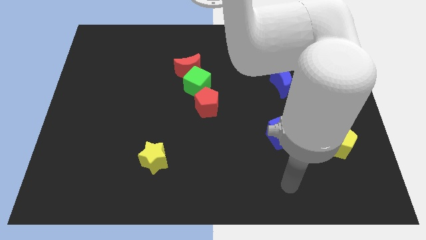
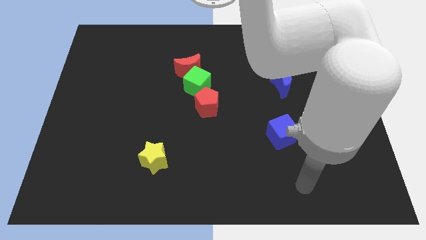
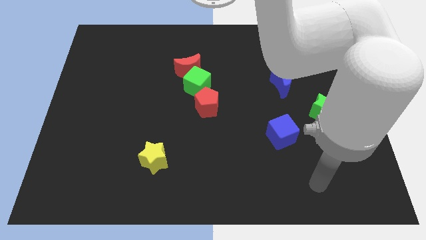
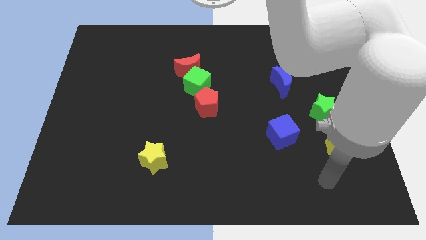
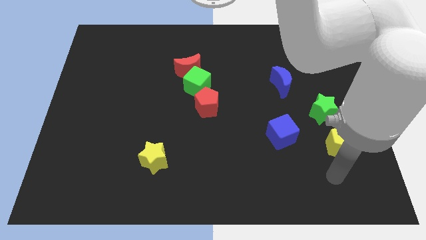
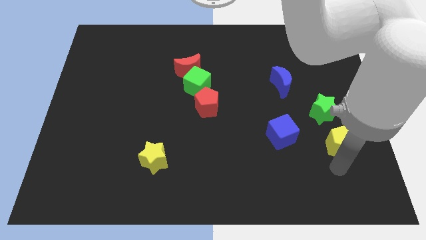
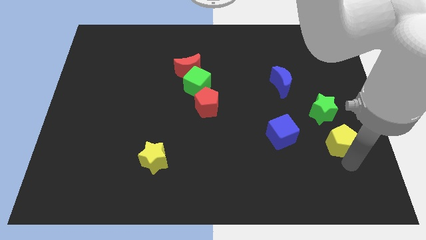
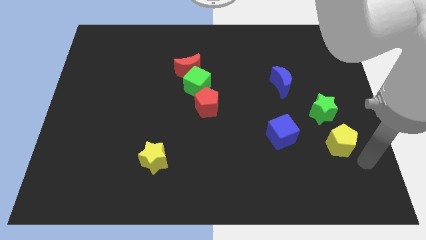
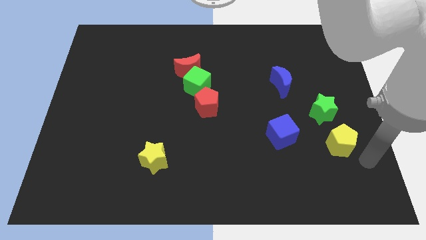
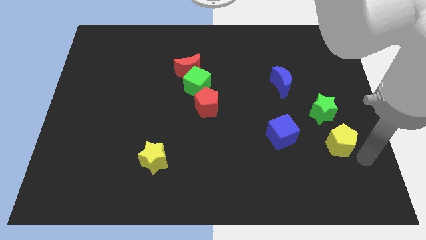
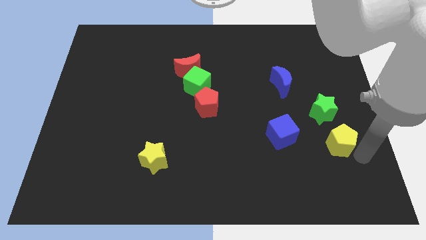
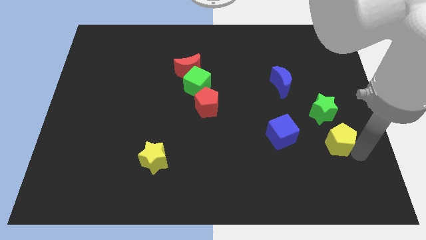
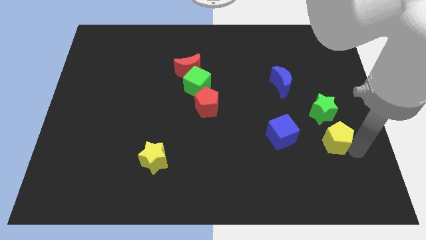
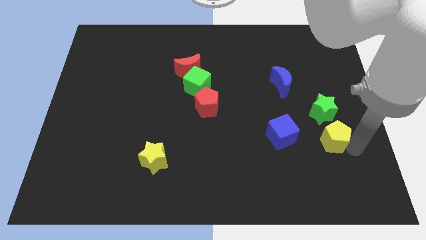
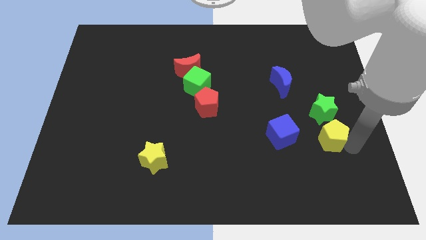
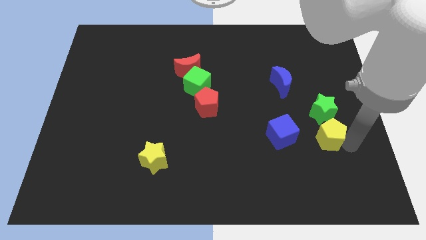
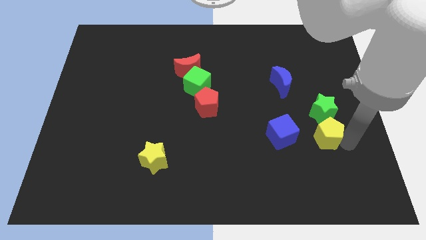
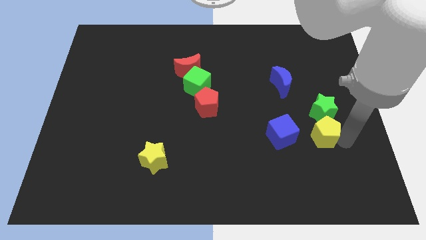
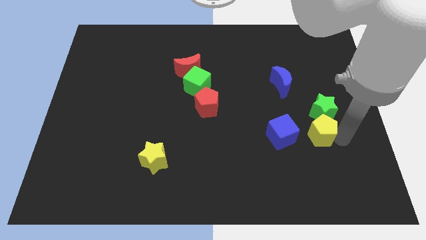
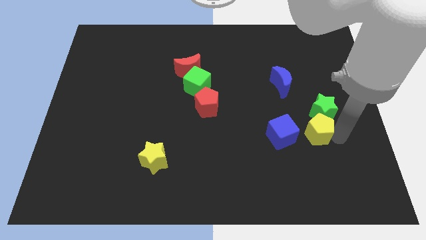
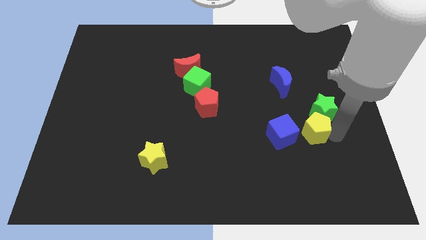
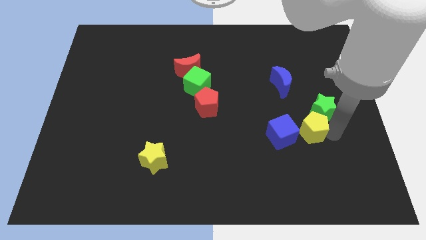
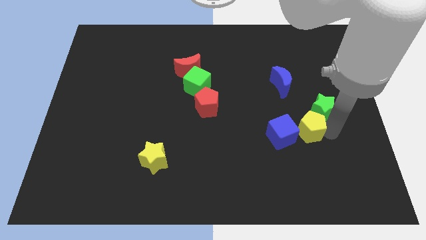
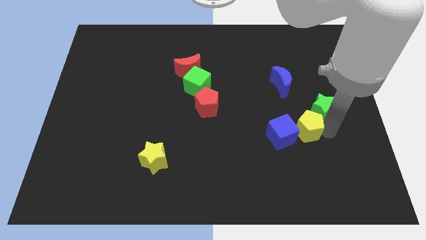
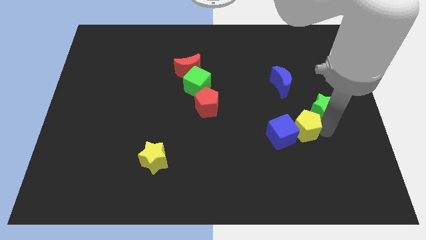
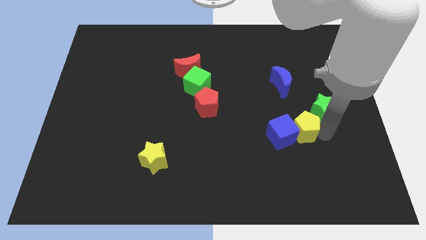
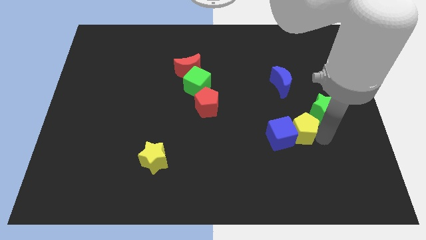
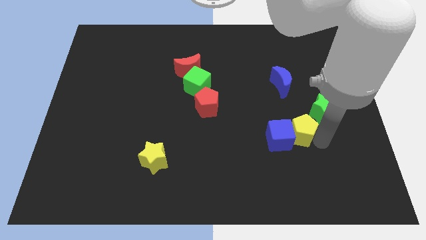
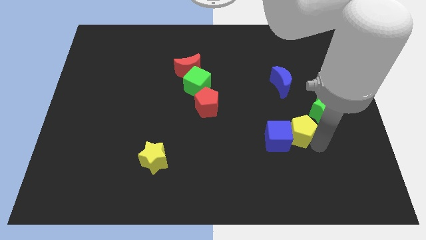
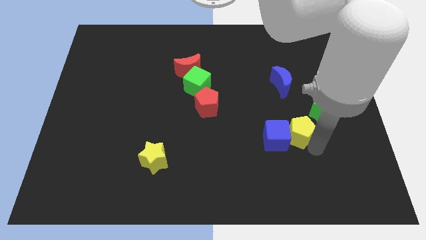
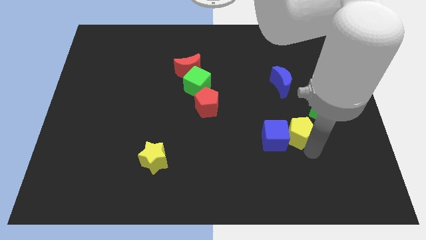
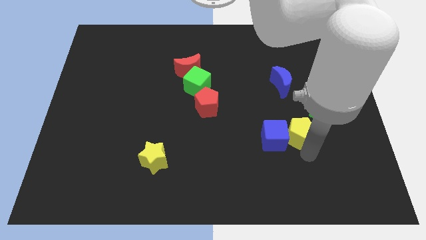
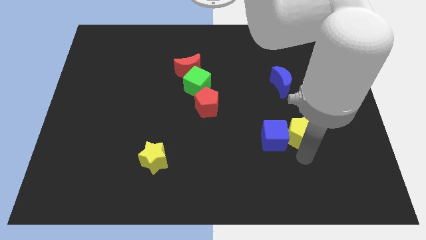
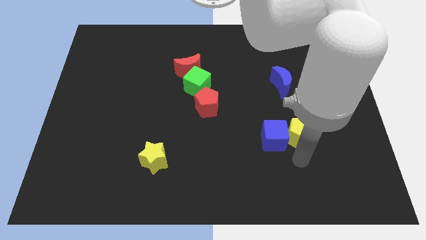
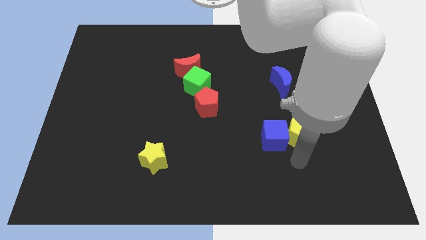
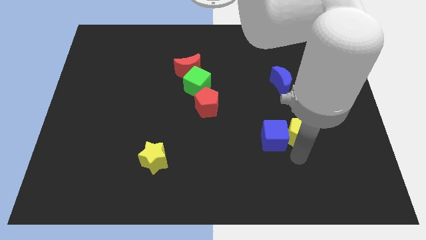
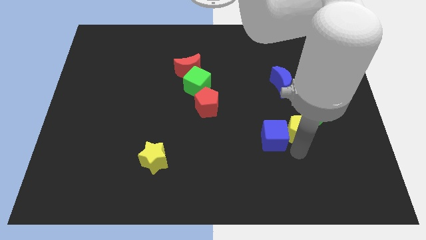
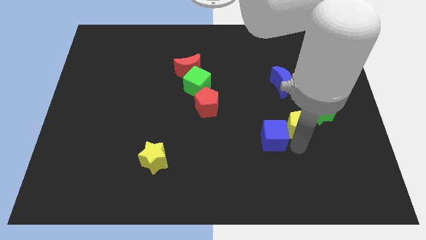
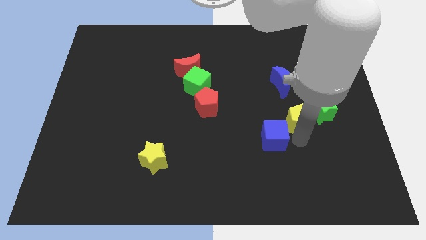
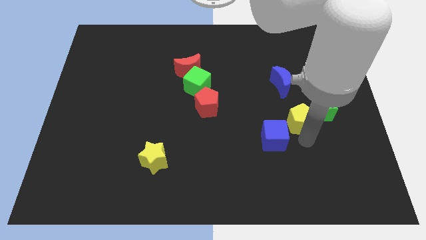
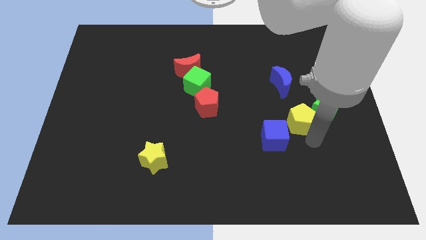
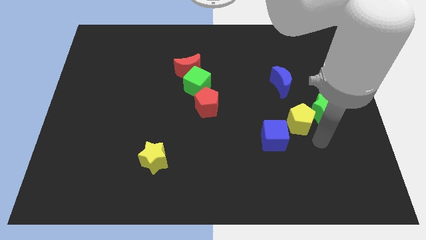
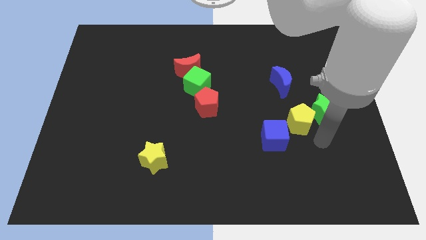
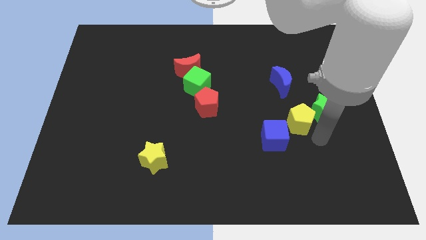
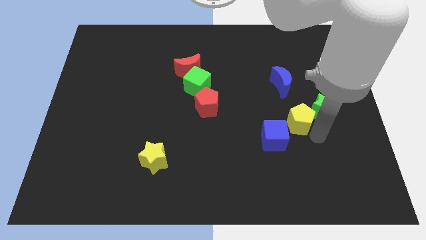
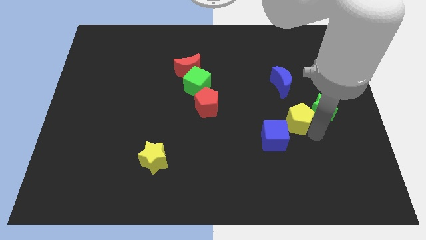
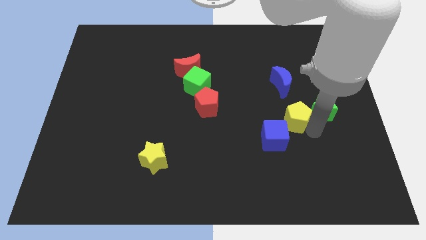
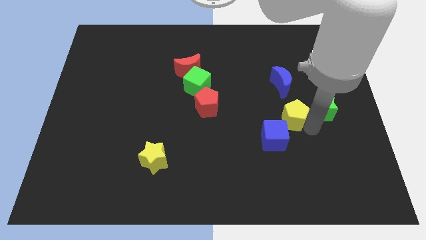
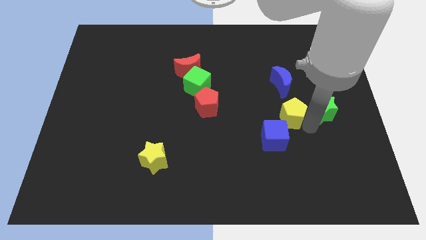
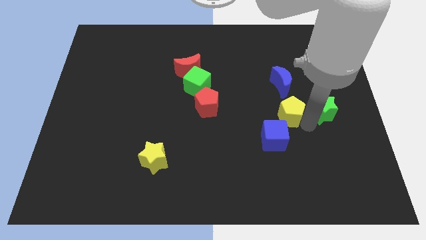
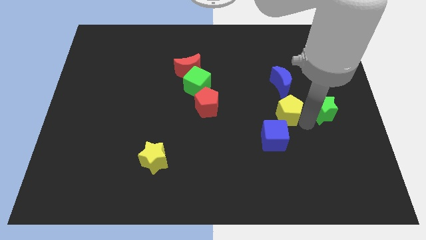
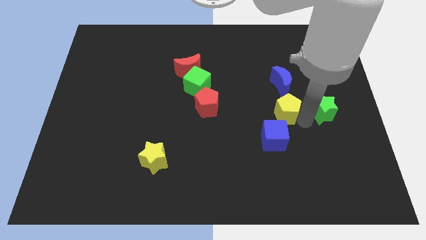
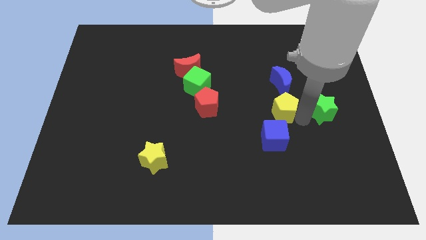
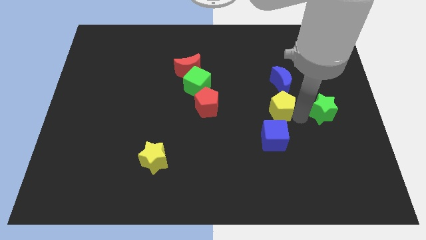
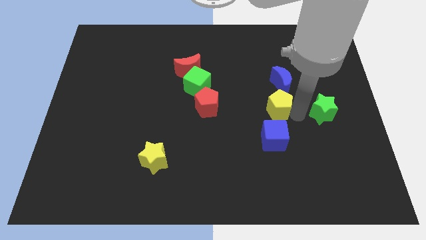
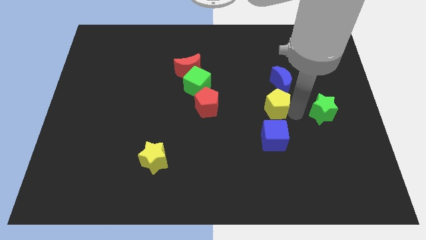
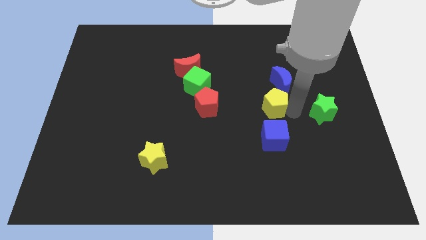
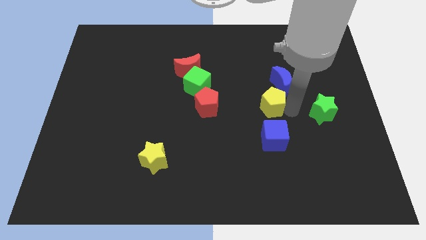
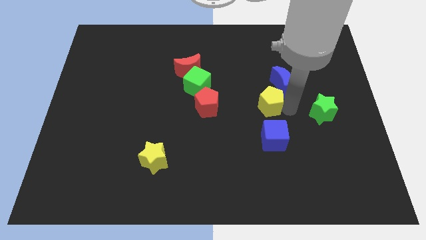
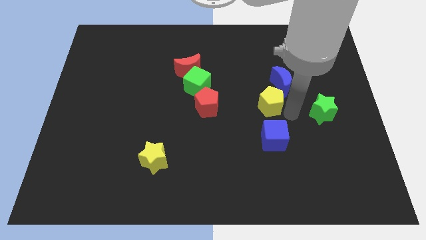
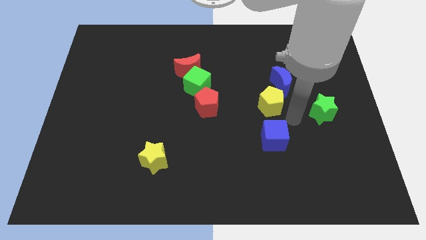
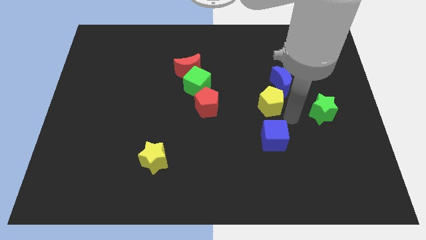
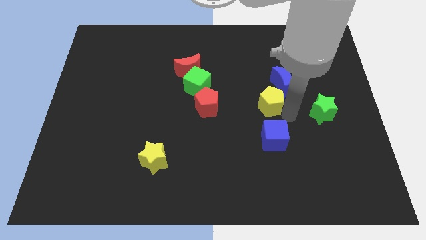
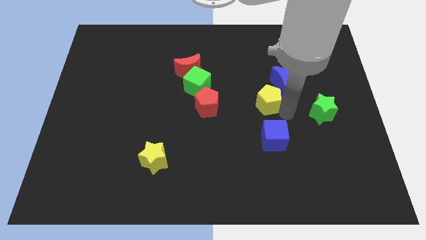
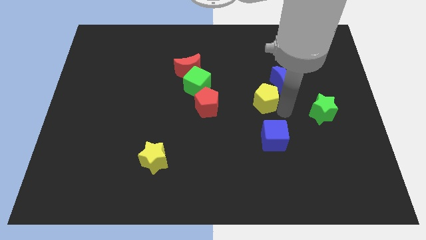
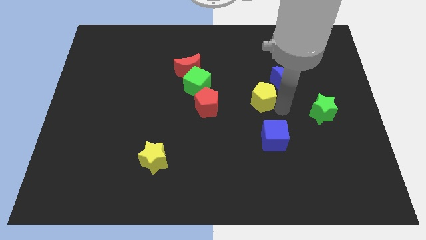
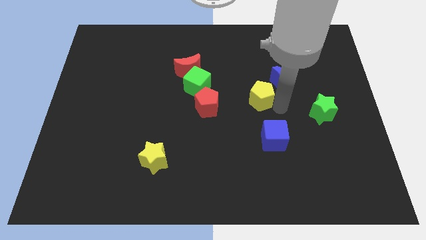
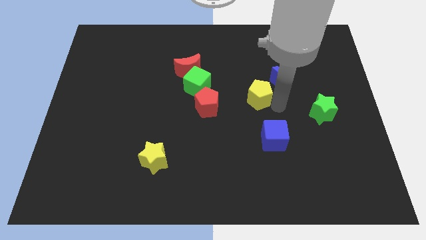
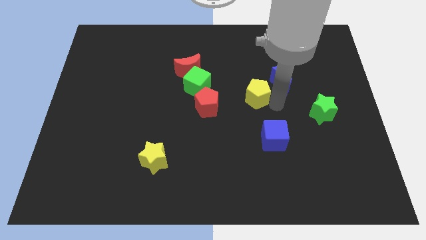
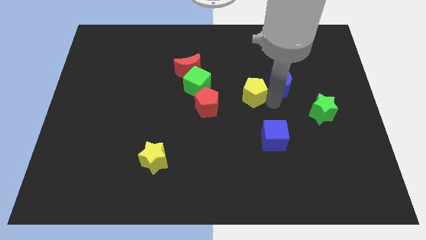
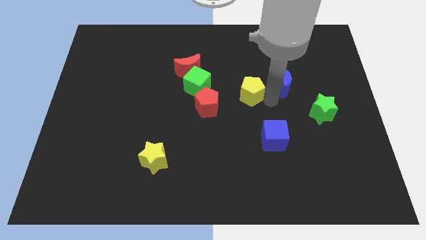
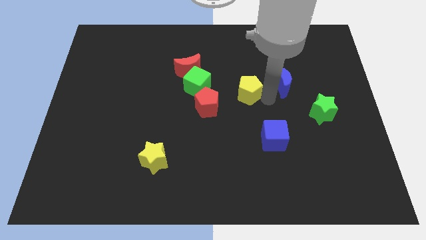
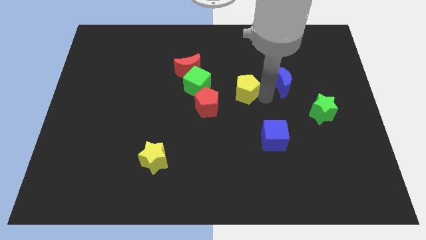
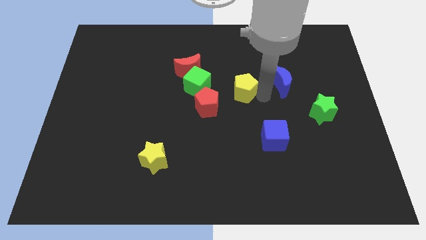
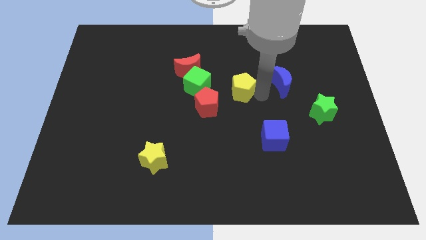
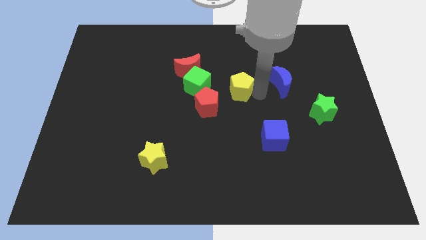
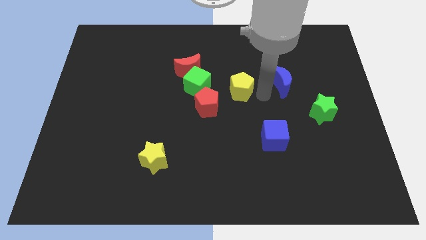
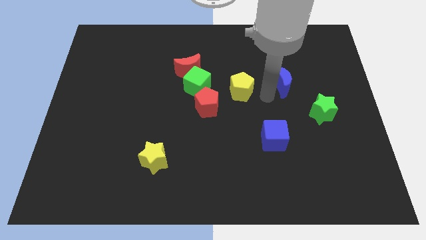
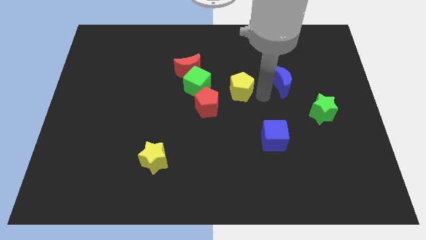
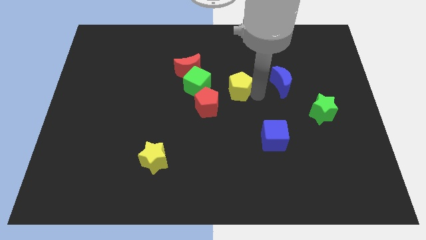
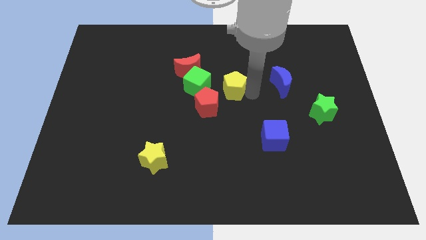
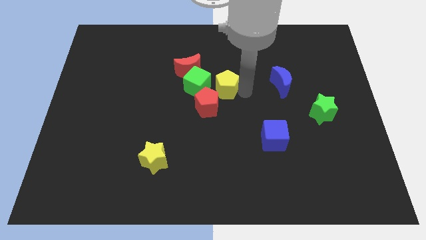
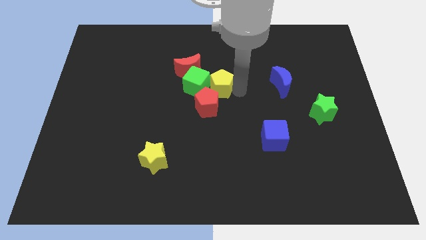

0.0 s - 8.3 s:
slide the yellow pentagon towards the green cube
